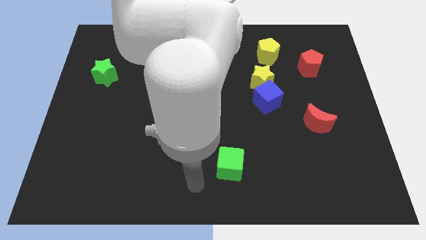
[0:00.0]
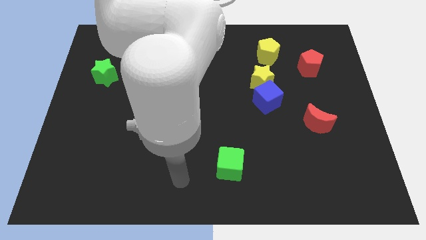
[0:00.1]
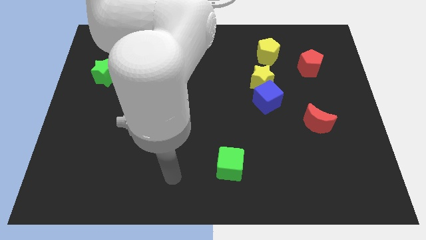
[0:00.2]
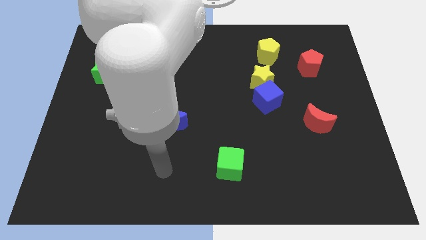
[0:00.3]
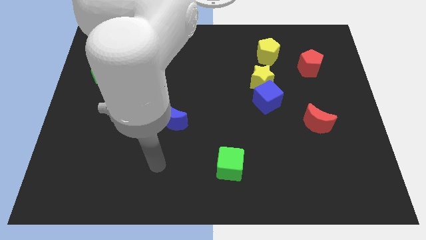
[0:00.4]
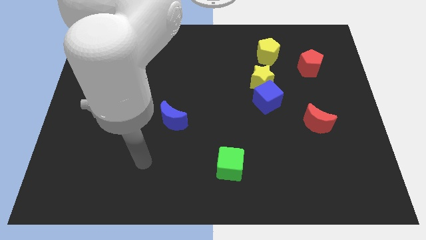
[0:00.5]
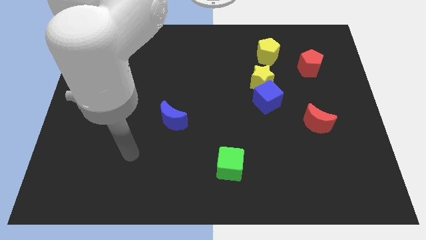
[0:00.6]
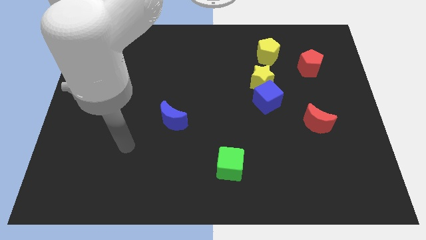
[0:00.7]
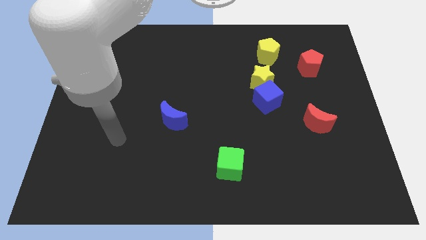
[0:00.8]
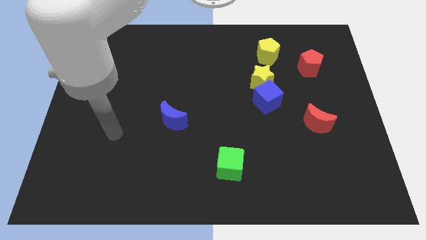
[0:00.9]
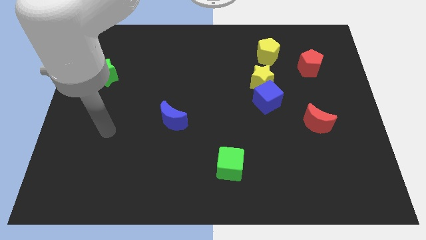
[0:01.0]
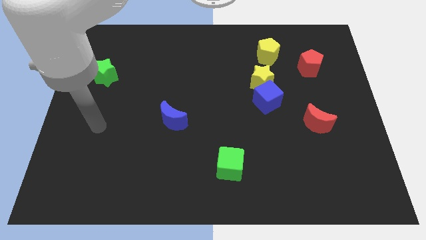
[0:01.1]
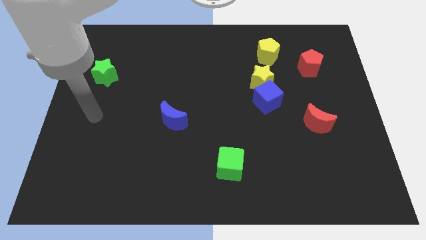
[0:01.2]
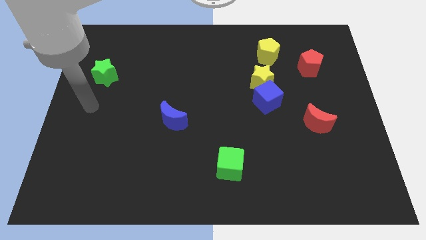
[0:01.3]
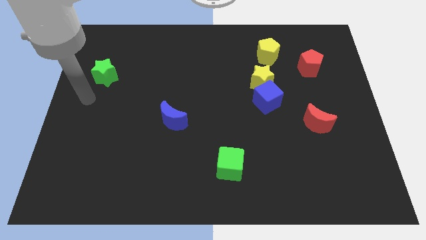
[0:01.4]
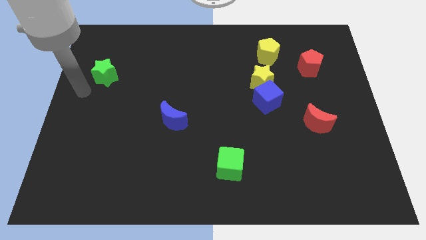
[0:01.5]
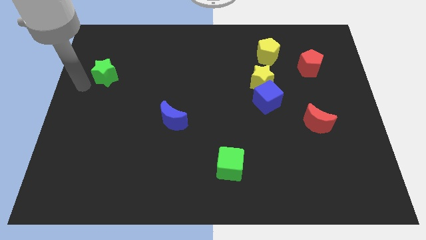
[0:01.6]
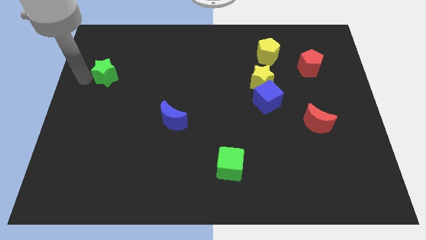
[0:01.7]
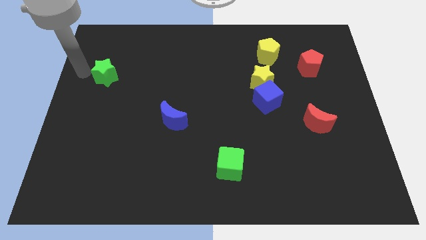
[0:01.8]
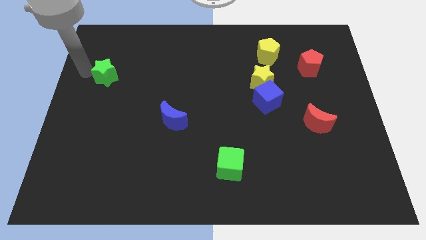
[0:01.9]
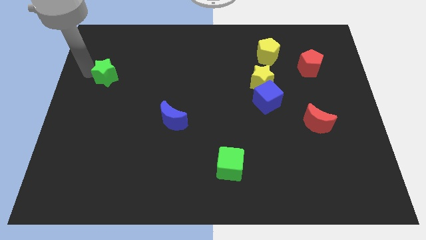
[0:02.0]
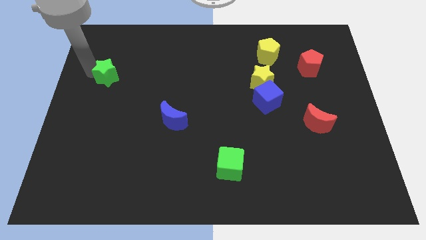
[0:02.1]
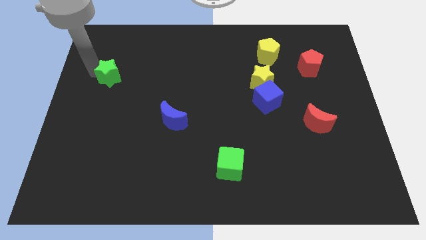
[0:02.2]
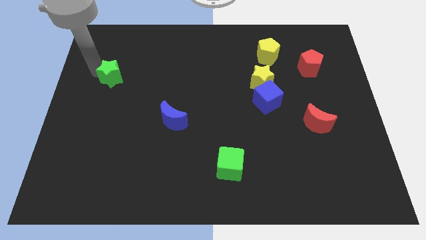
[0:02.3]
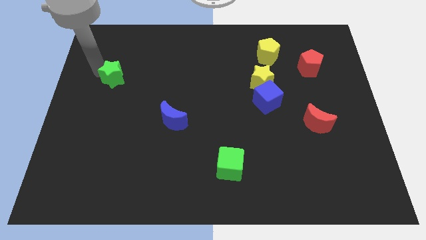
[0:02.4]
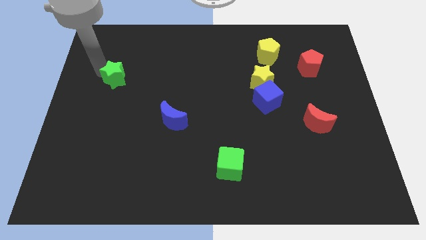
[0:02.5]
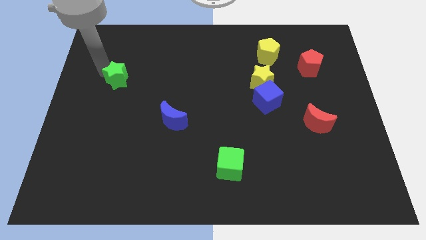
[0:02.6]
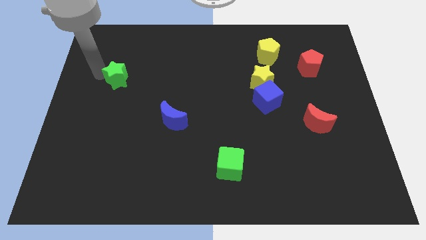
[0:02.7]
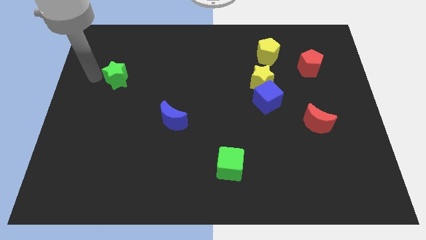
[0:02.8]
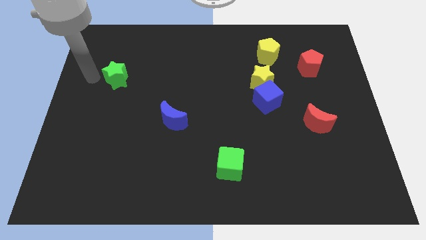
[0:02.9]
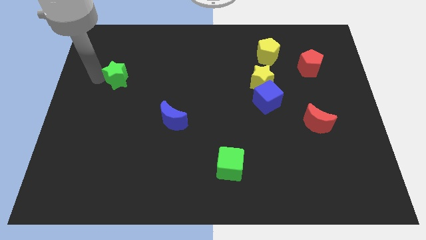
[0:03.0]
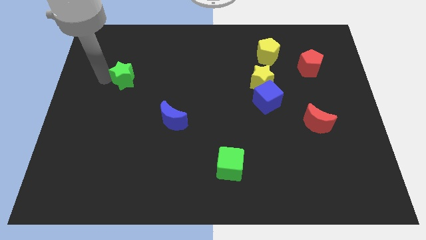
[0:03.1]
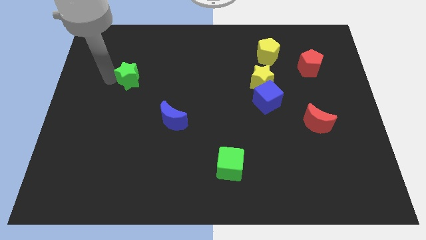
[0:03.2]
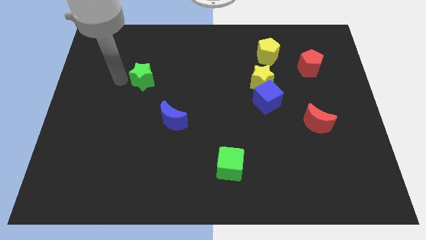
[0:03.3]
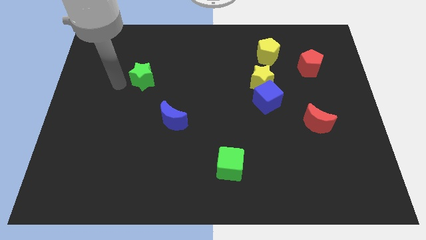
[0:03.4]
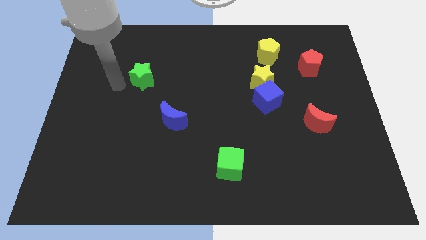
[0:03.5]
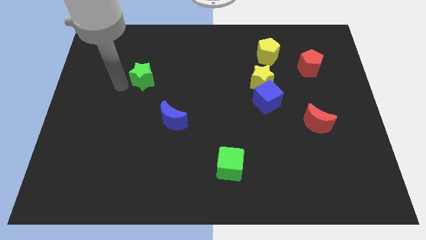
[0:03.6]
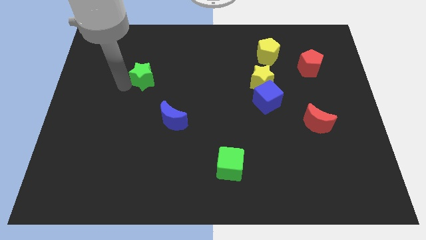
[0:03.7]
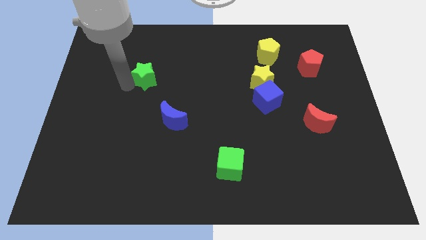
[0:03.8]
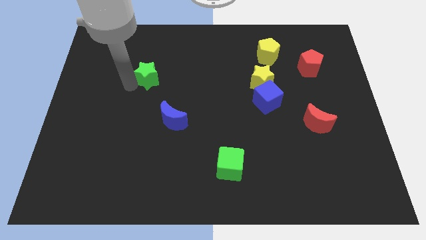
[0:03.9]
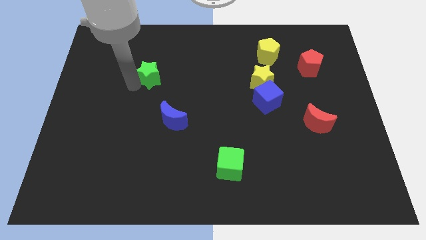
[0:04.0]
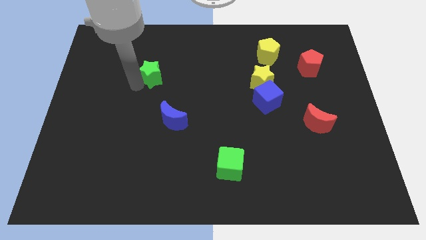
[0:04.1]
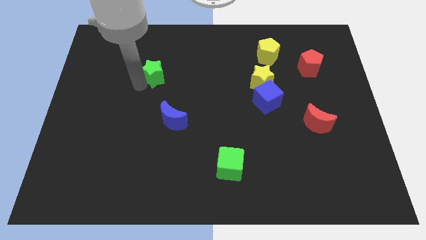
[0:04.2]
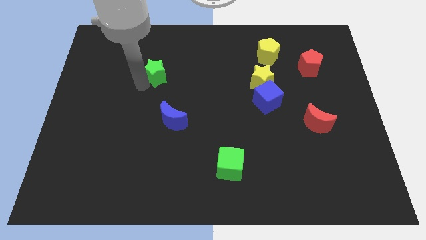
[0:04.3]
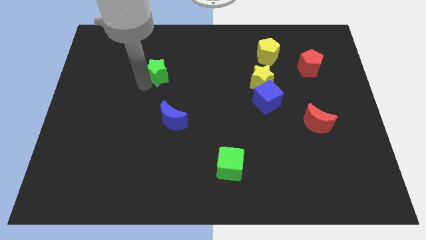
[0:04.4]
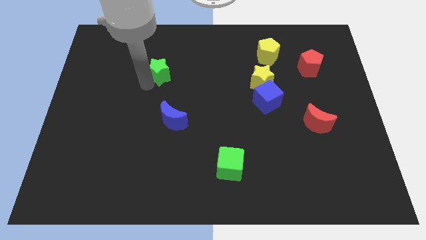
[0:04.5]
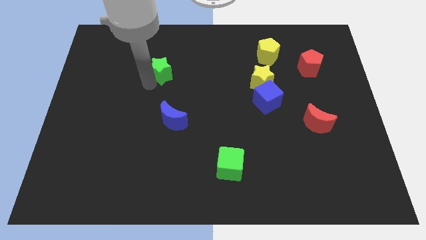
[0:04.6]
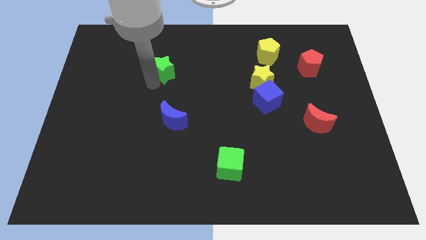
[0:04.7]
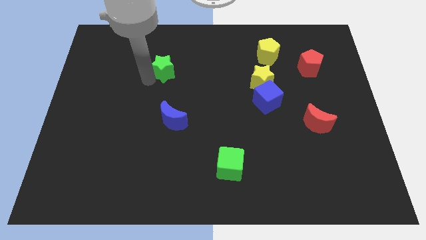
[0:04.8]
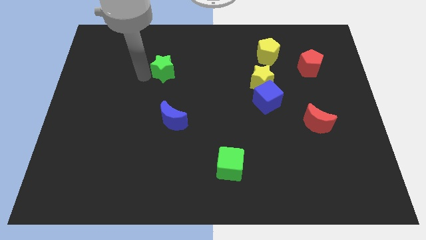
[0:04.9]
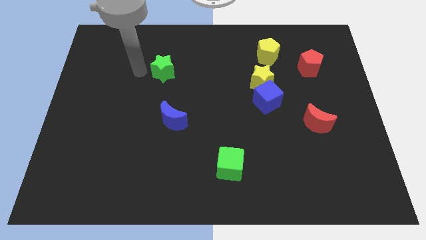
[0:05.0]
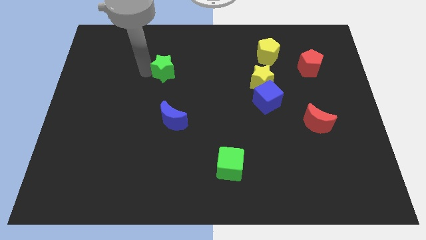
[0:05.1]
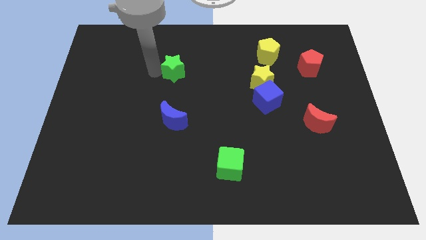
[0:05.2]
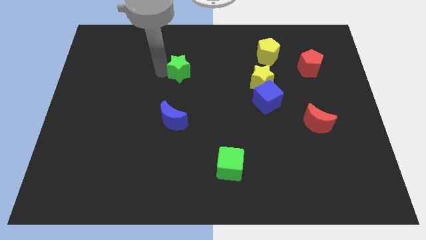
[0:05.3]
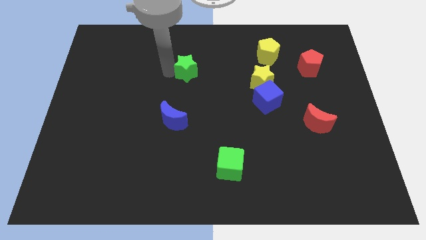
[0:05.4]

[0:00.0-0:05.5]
push the green star right

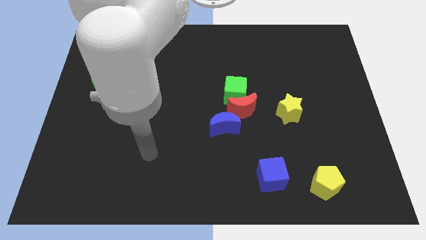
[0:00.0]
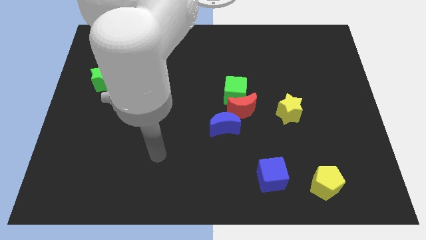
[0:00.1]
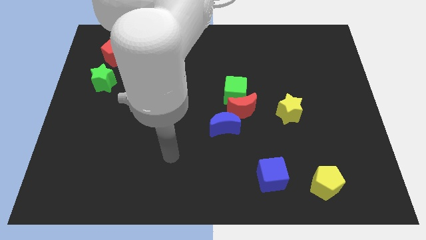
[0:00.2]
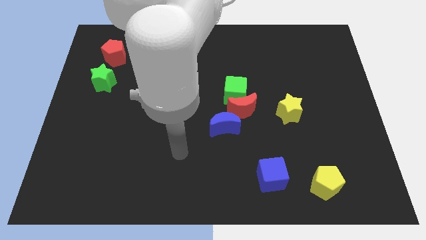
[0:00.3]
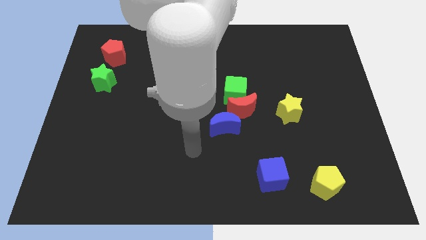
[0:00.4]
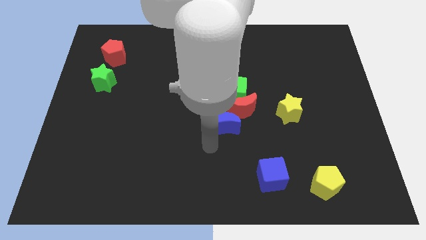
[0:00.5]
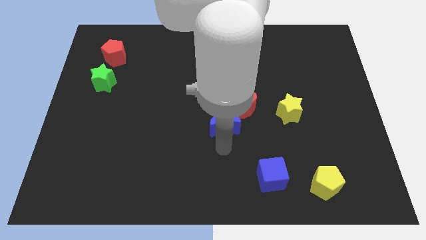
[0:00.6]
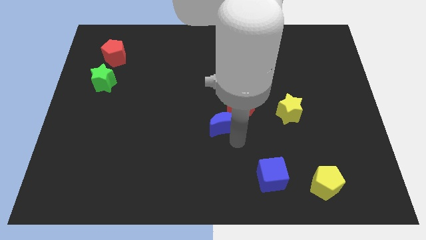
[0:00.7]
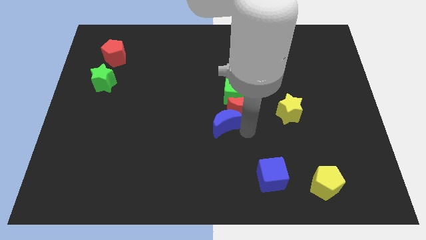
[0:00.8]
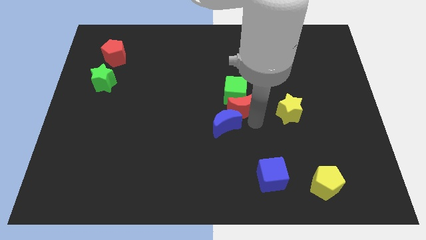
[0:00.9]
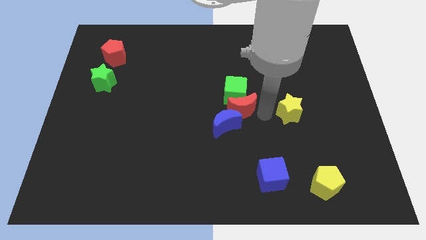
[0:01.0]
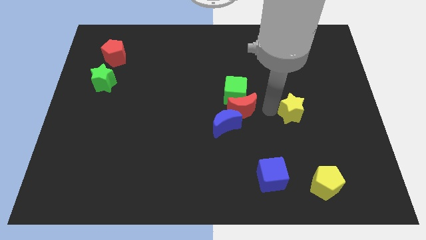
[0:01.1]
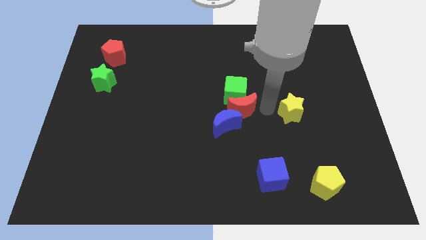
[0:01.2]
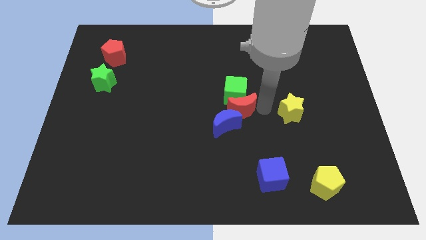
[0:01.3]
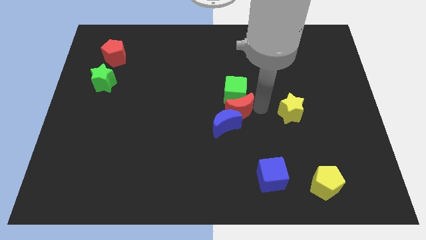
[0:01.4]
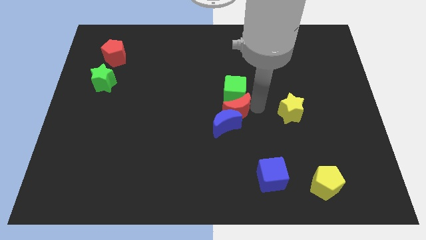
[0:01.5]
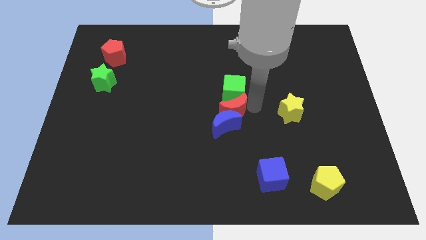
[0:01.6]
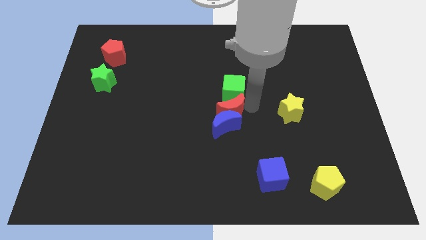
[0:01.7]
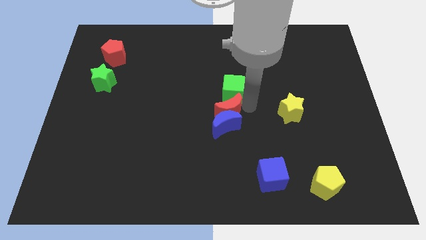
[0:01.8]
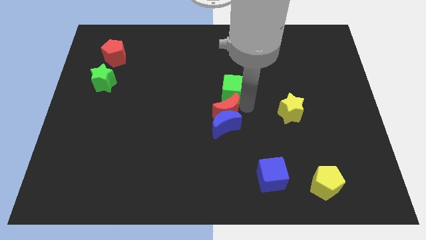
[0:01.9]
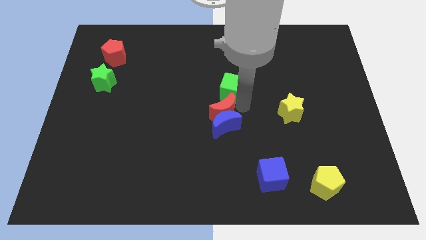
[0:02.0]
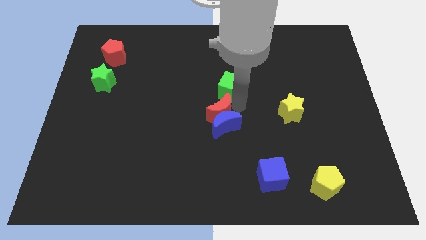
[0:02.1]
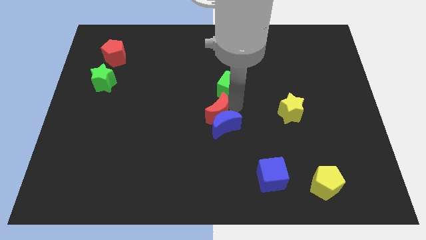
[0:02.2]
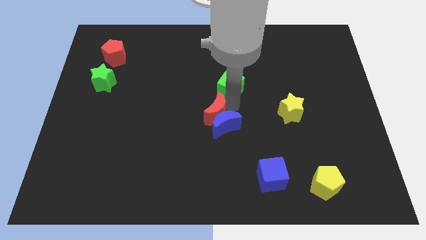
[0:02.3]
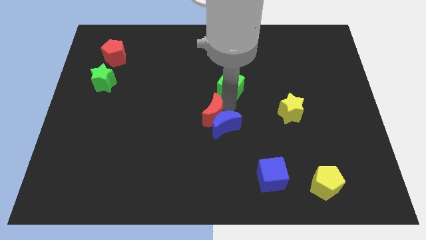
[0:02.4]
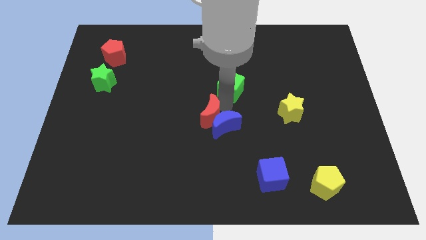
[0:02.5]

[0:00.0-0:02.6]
slide the red moon to the left slightly

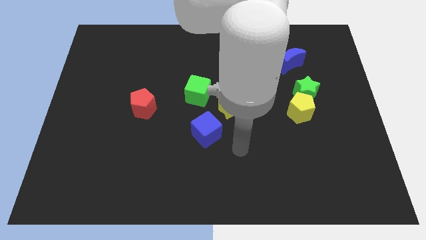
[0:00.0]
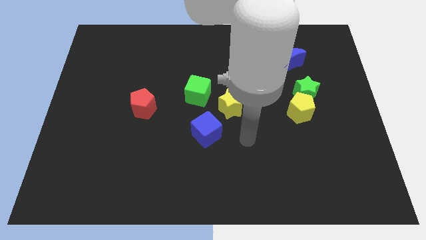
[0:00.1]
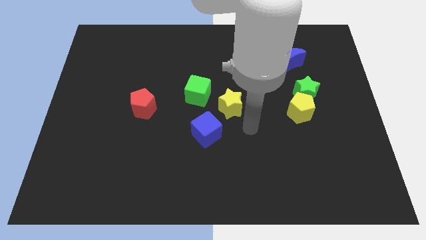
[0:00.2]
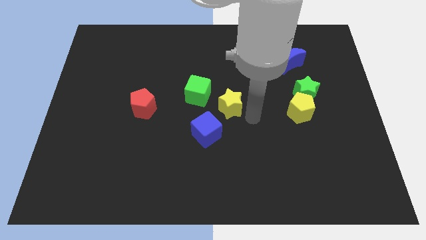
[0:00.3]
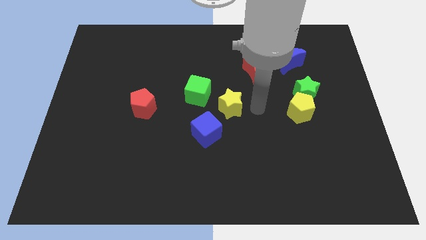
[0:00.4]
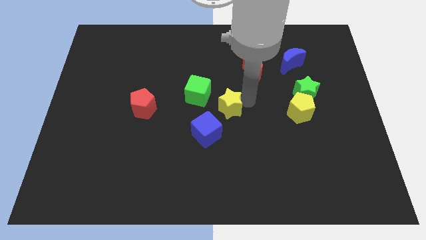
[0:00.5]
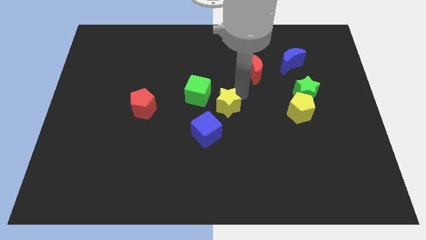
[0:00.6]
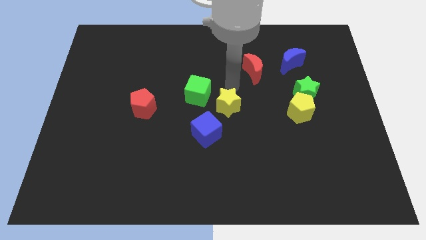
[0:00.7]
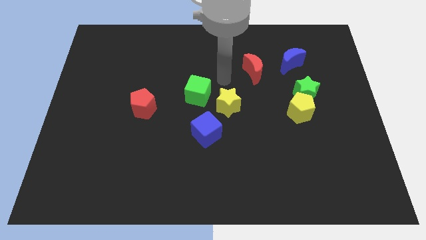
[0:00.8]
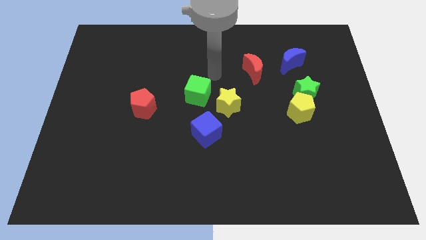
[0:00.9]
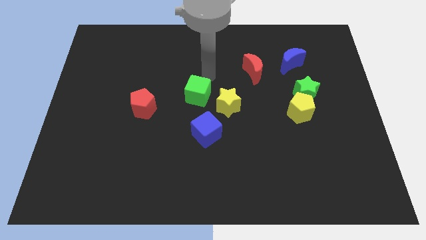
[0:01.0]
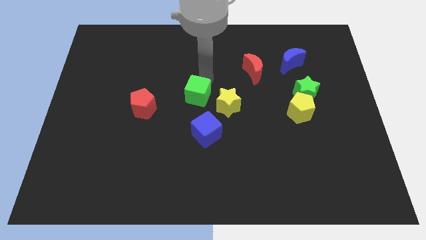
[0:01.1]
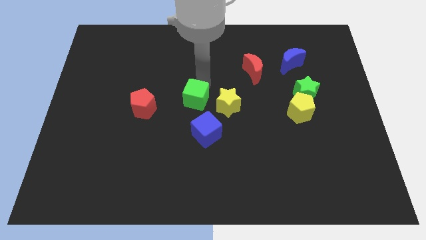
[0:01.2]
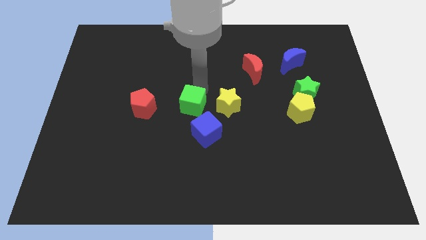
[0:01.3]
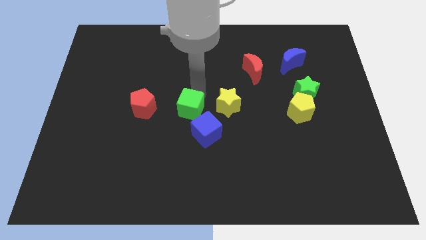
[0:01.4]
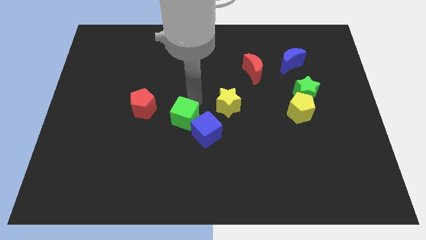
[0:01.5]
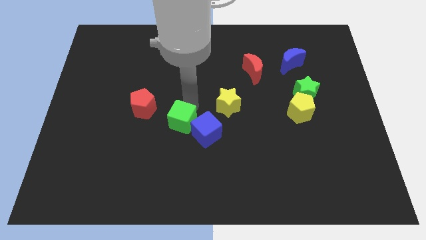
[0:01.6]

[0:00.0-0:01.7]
slide the green cube a little downwards
